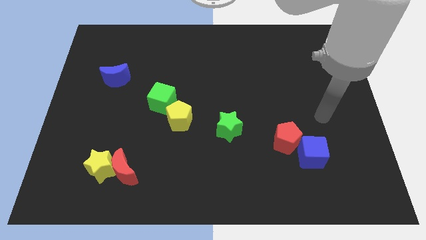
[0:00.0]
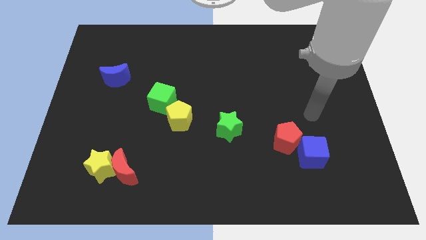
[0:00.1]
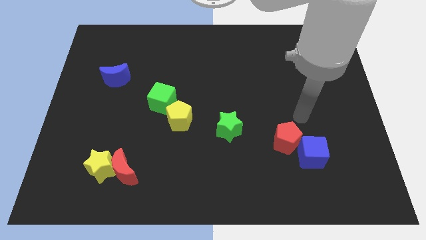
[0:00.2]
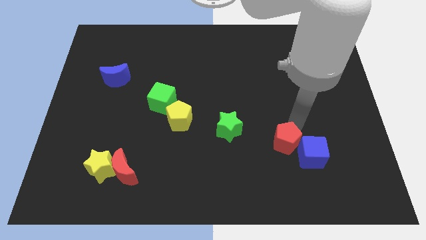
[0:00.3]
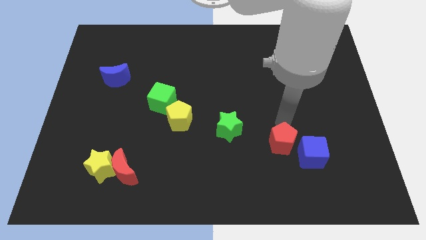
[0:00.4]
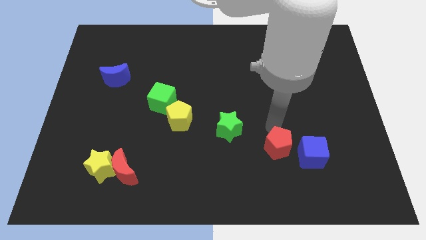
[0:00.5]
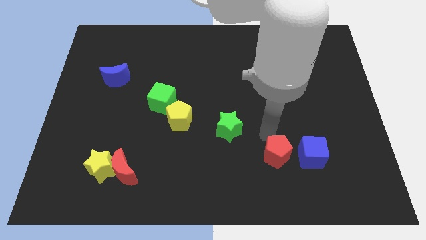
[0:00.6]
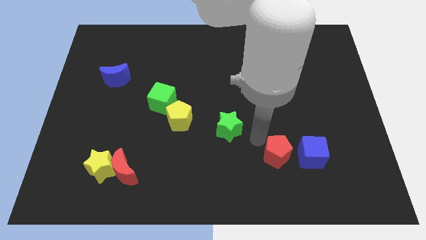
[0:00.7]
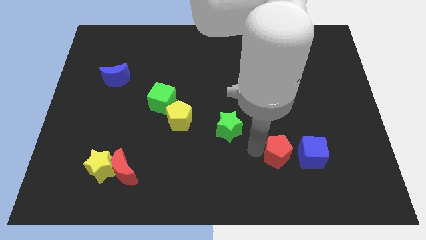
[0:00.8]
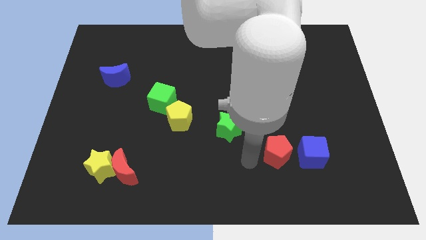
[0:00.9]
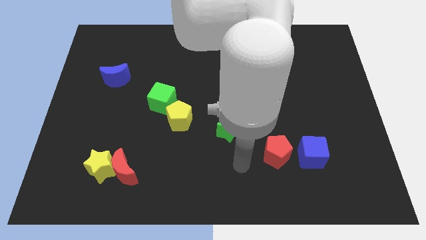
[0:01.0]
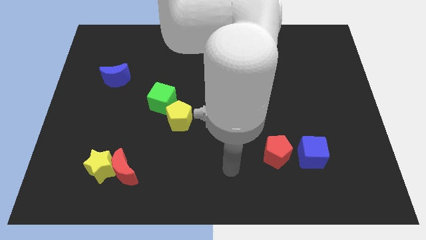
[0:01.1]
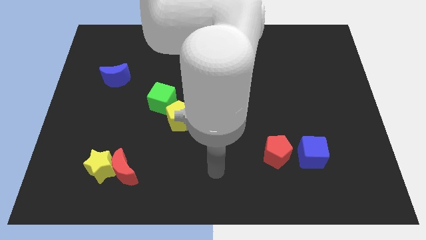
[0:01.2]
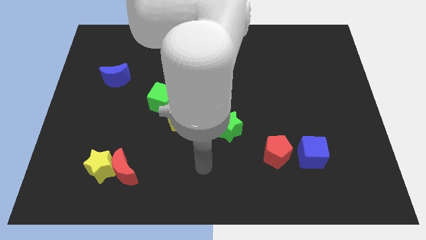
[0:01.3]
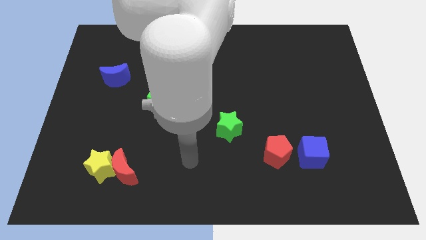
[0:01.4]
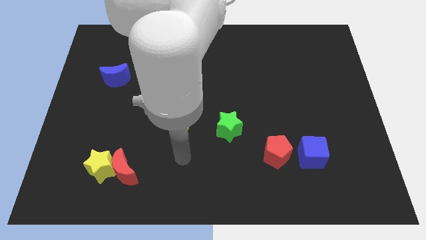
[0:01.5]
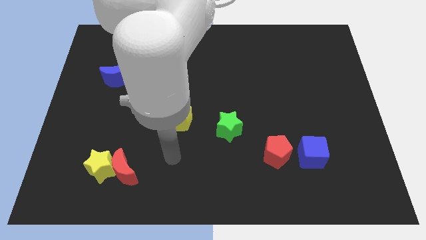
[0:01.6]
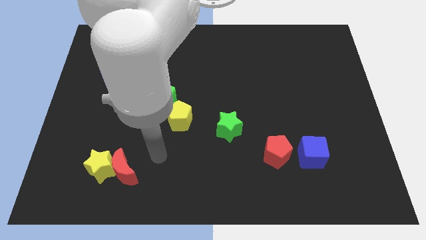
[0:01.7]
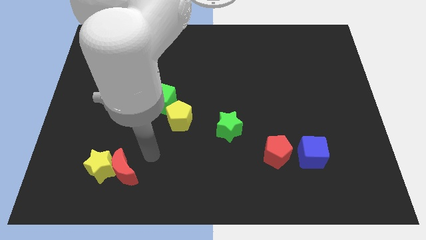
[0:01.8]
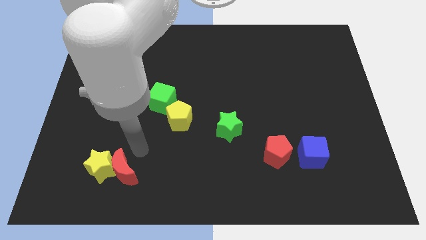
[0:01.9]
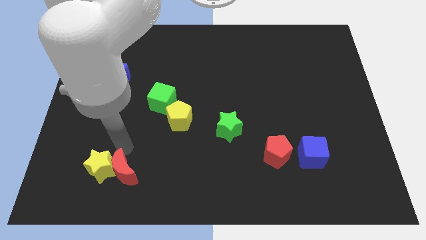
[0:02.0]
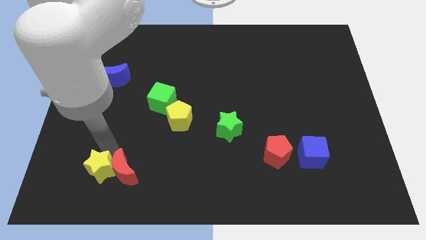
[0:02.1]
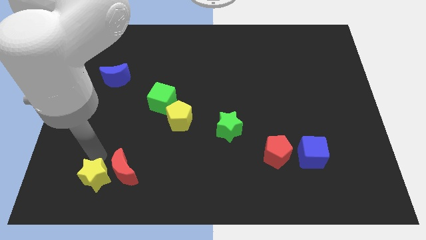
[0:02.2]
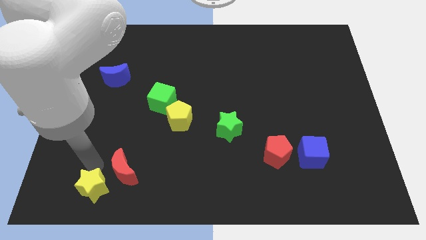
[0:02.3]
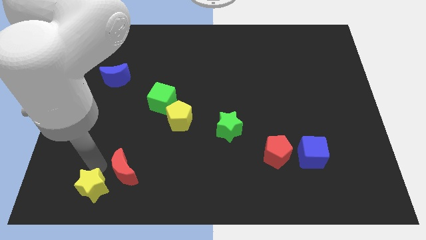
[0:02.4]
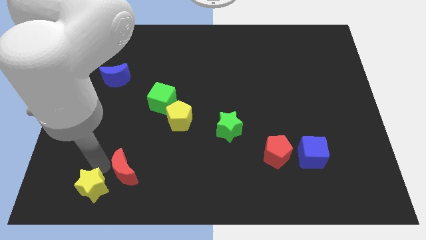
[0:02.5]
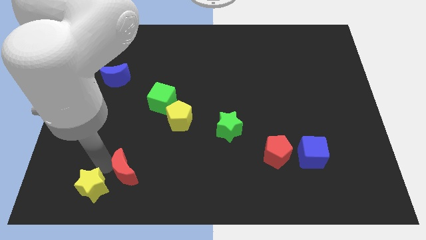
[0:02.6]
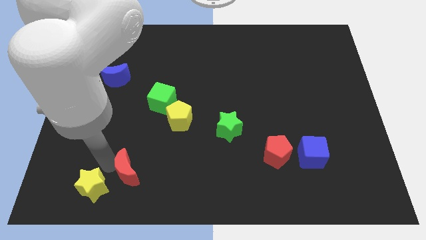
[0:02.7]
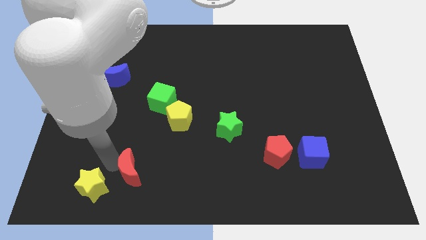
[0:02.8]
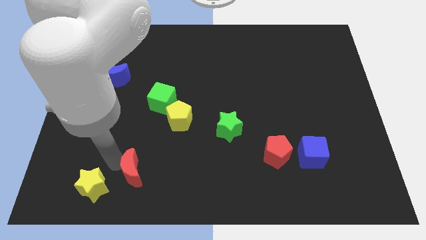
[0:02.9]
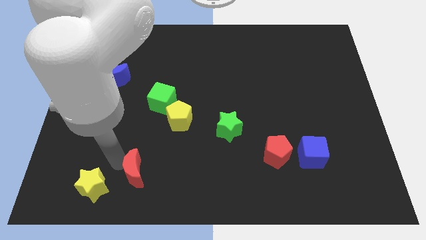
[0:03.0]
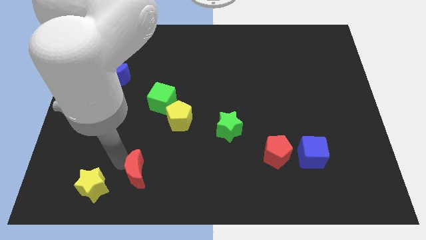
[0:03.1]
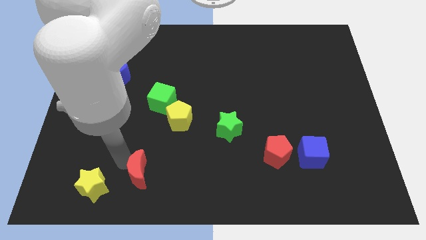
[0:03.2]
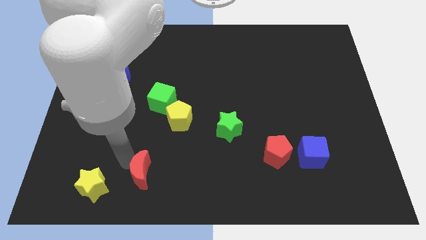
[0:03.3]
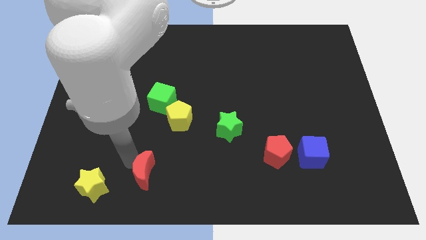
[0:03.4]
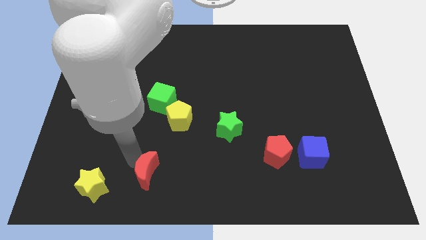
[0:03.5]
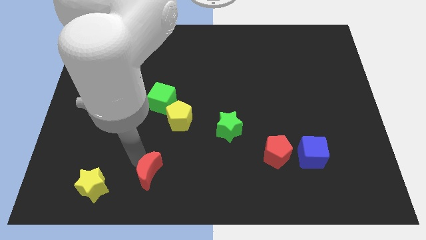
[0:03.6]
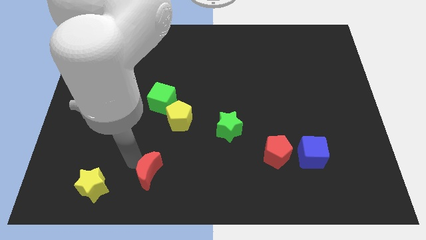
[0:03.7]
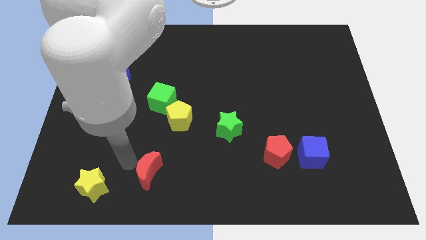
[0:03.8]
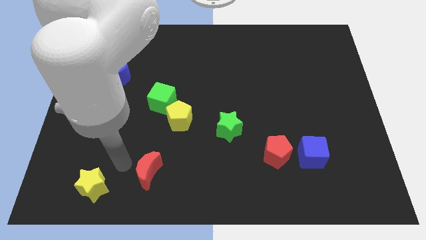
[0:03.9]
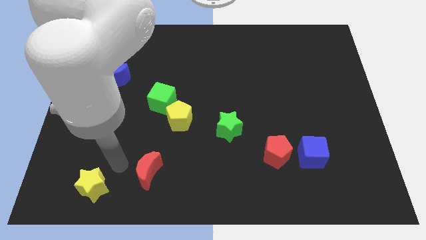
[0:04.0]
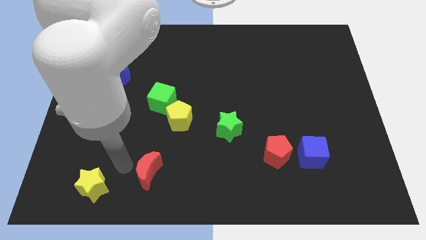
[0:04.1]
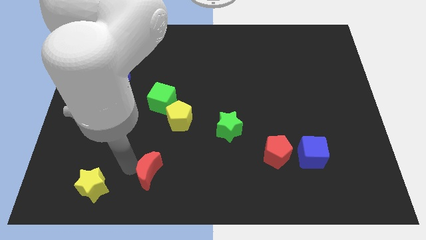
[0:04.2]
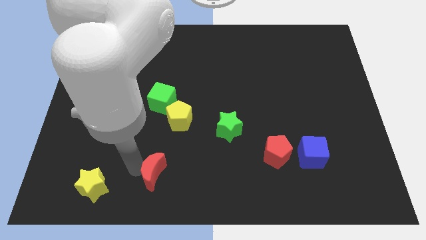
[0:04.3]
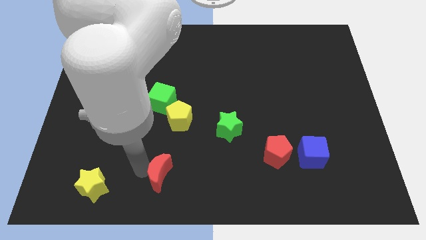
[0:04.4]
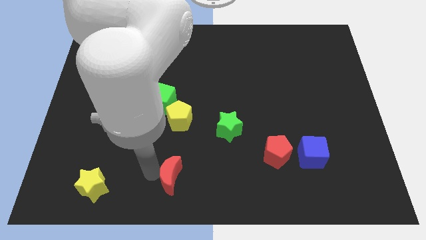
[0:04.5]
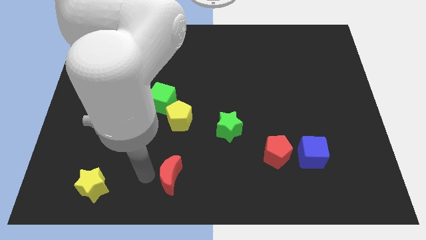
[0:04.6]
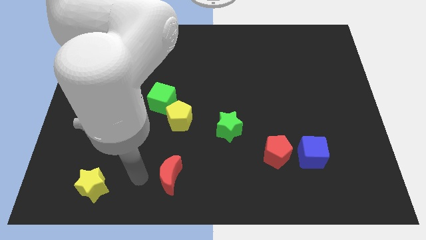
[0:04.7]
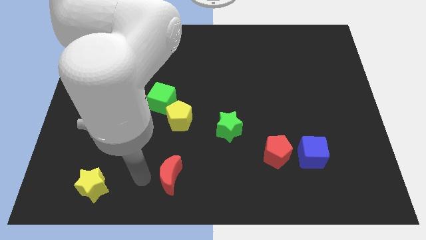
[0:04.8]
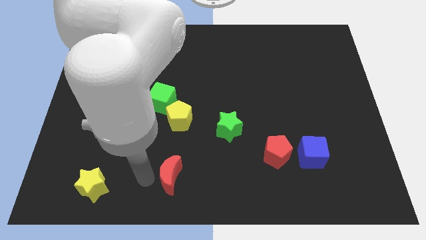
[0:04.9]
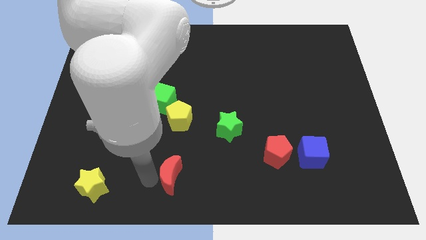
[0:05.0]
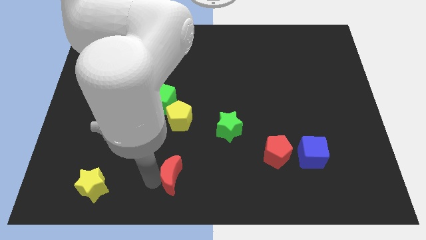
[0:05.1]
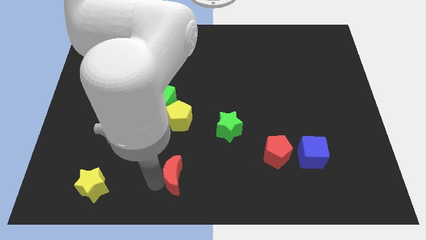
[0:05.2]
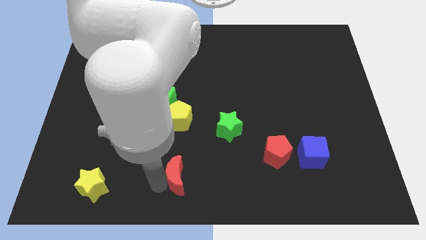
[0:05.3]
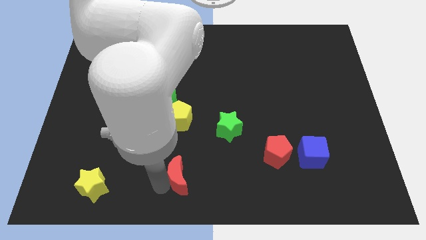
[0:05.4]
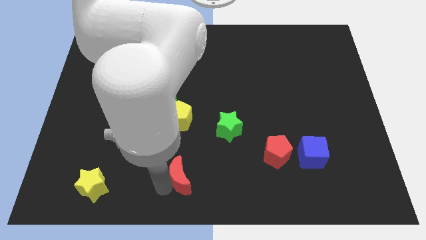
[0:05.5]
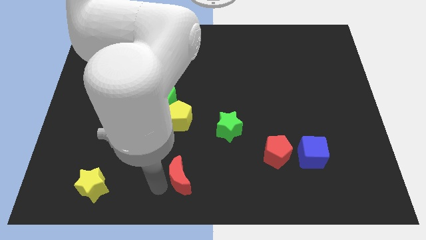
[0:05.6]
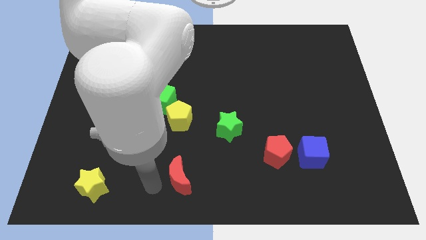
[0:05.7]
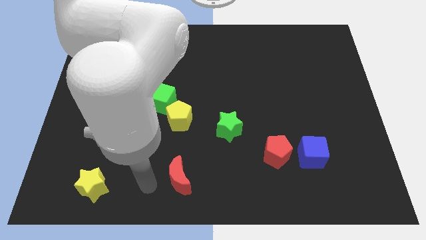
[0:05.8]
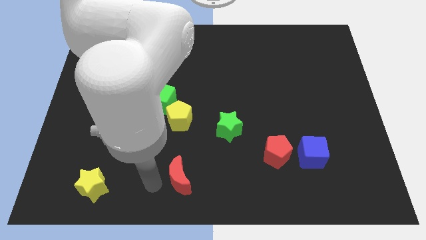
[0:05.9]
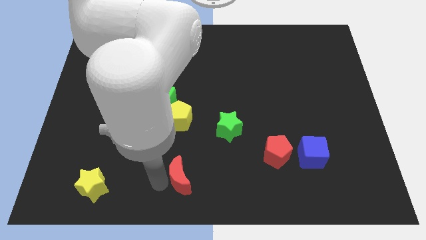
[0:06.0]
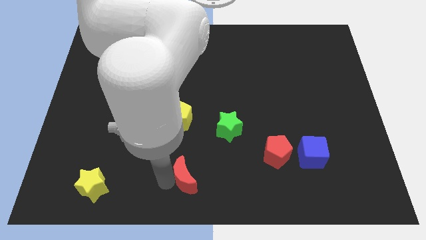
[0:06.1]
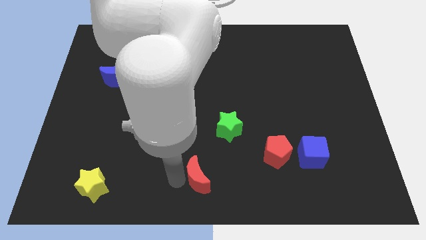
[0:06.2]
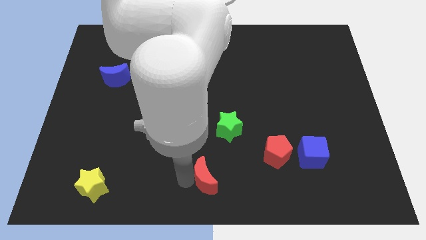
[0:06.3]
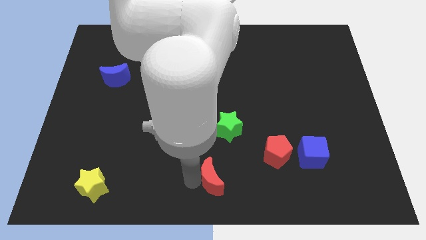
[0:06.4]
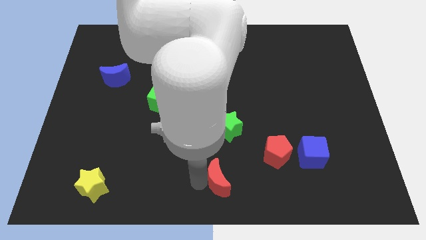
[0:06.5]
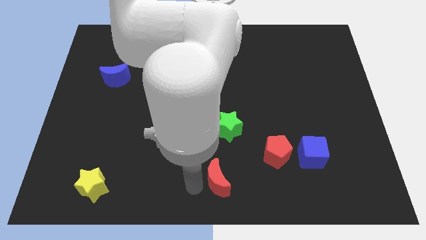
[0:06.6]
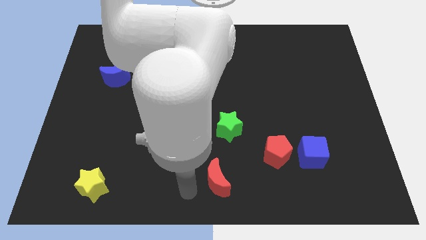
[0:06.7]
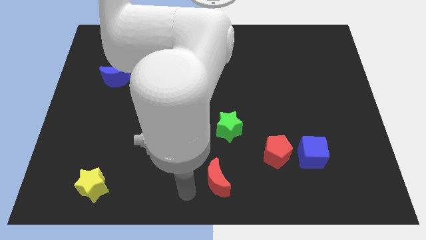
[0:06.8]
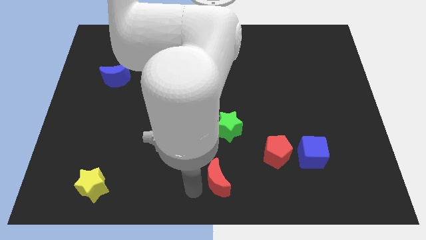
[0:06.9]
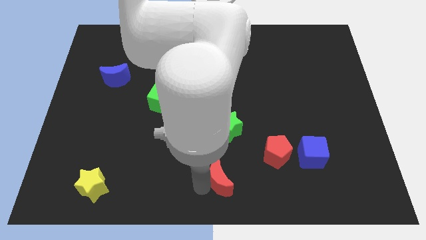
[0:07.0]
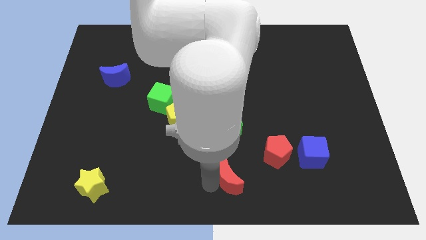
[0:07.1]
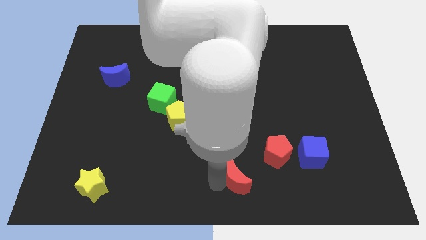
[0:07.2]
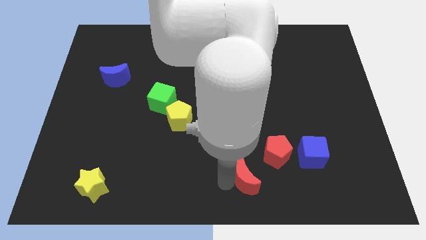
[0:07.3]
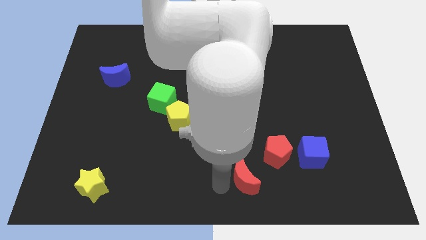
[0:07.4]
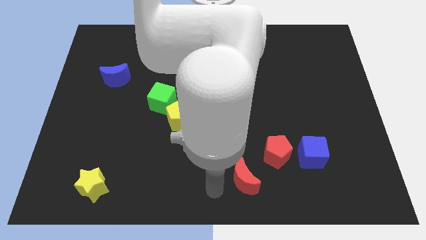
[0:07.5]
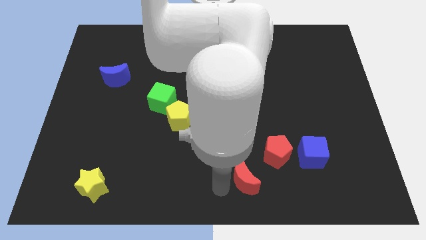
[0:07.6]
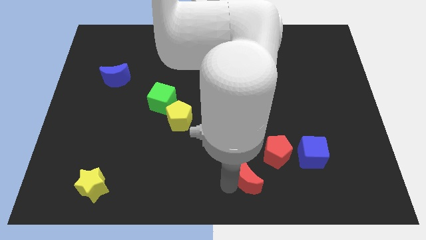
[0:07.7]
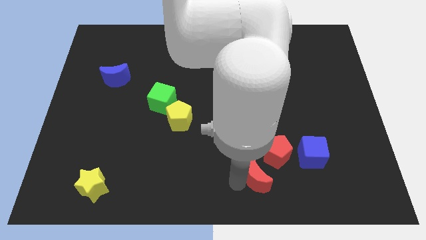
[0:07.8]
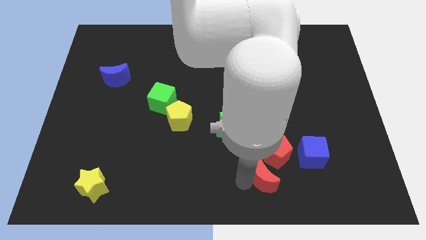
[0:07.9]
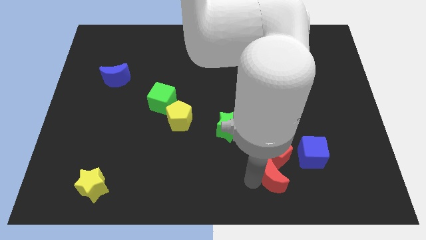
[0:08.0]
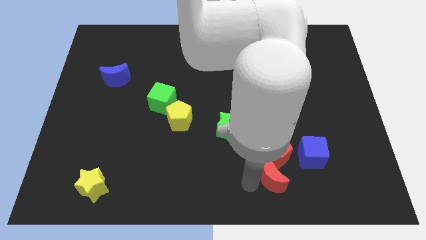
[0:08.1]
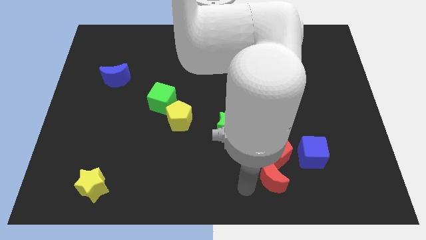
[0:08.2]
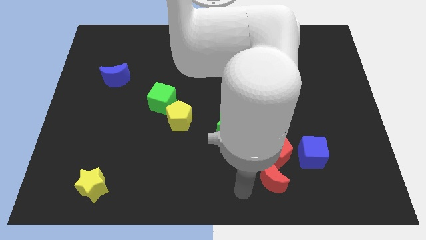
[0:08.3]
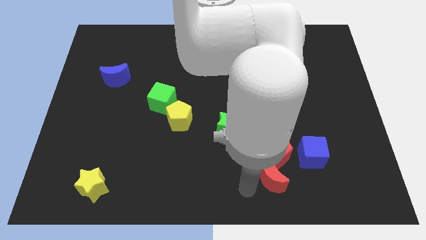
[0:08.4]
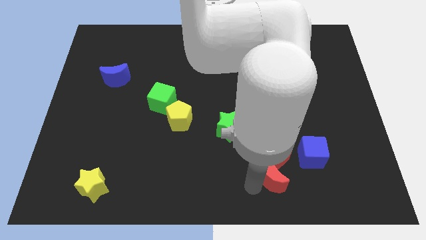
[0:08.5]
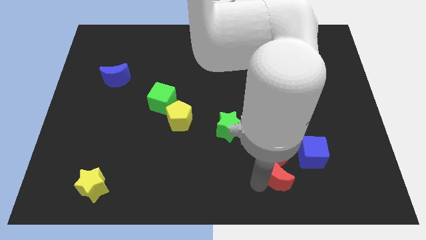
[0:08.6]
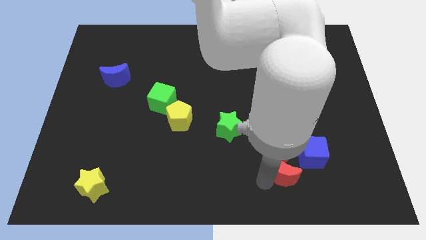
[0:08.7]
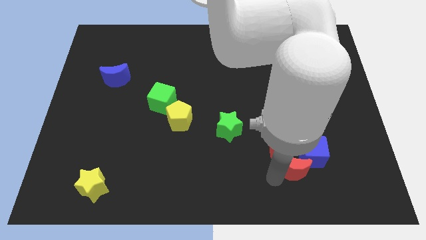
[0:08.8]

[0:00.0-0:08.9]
slide the red moon next to the blue cube
